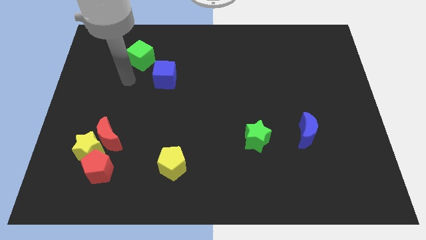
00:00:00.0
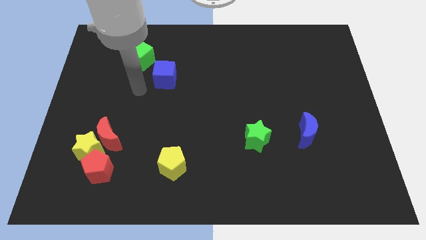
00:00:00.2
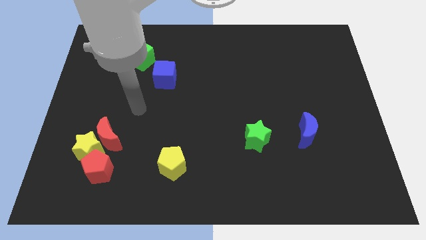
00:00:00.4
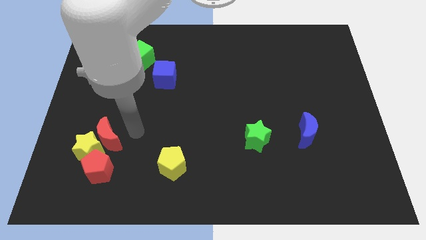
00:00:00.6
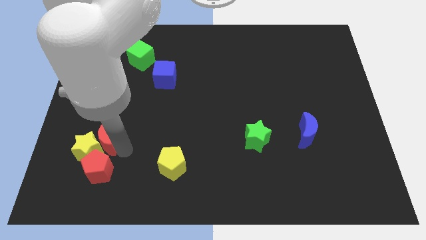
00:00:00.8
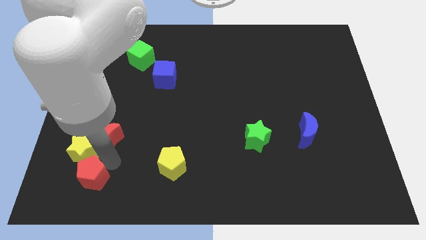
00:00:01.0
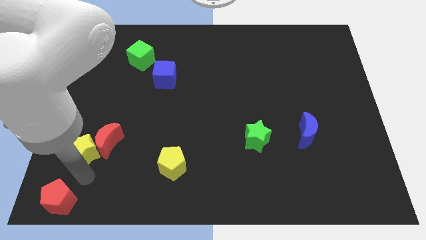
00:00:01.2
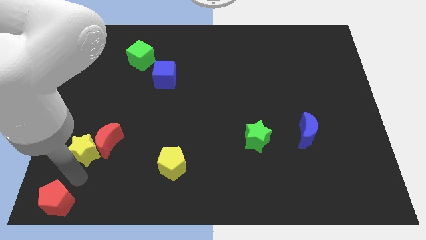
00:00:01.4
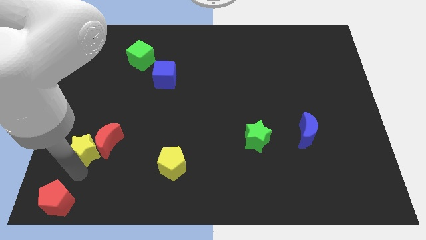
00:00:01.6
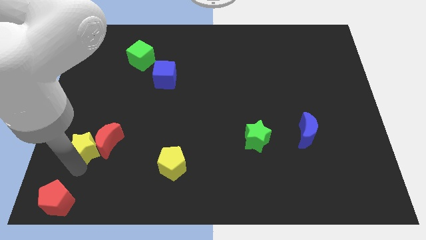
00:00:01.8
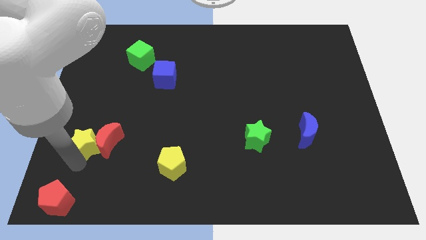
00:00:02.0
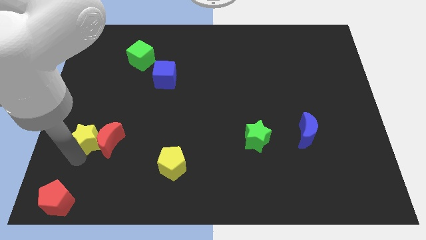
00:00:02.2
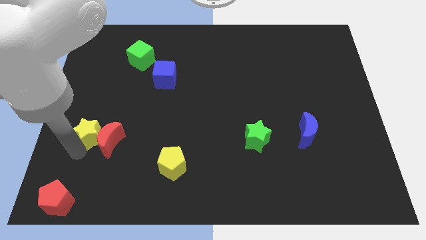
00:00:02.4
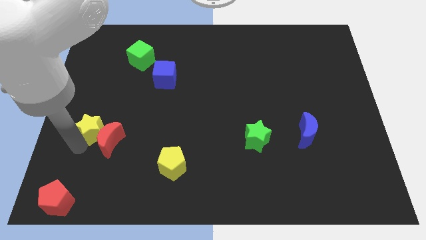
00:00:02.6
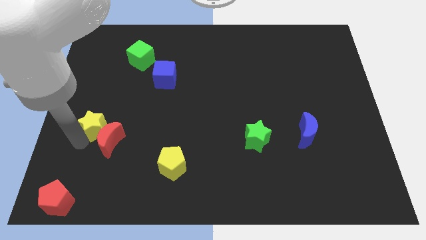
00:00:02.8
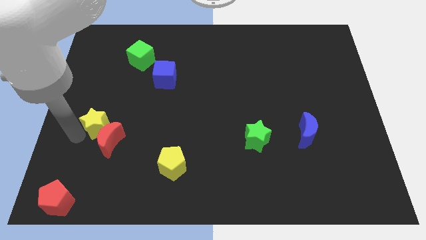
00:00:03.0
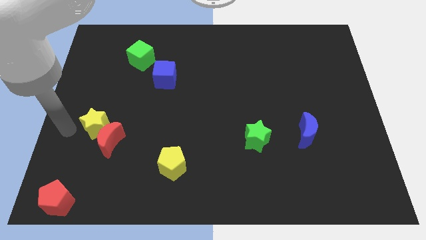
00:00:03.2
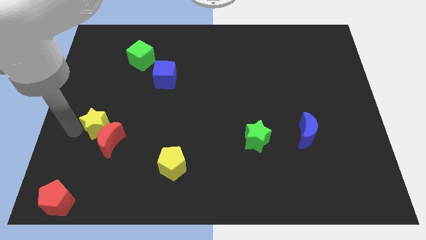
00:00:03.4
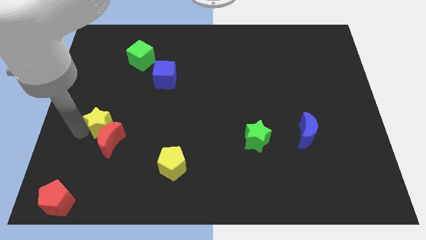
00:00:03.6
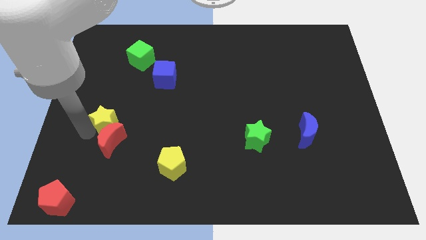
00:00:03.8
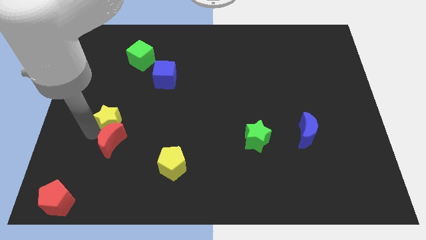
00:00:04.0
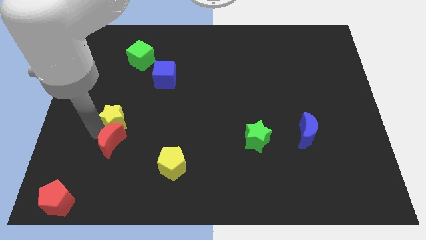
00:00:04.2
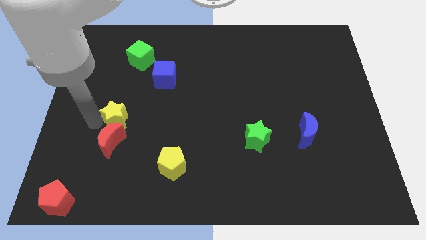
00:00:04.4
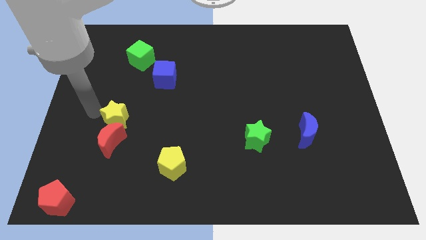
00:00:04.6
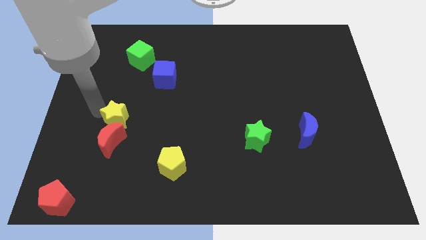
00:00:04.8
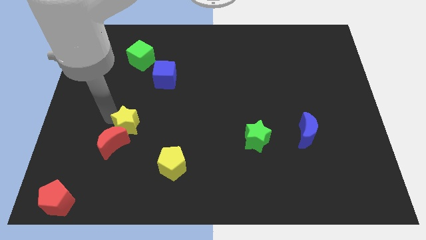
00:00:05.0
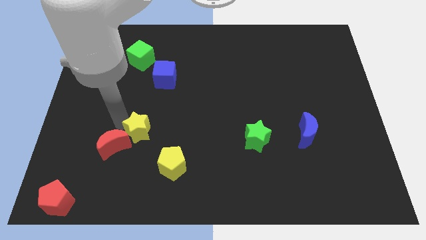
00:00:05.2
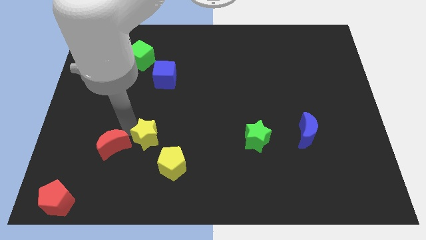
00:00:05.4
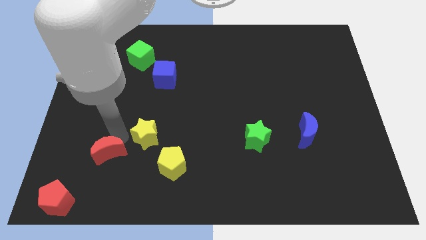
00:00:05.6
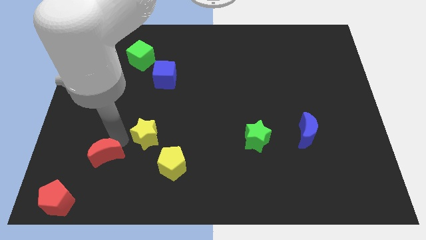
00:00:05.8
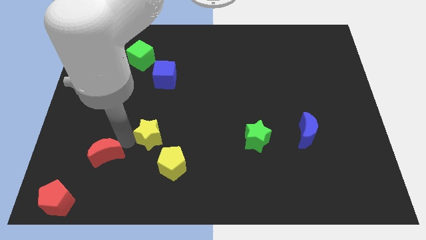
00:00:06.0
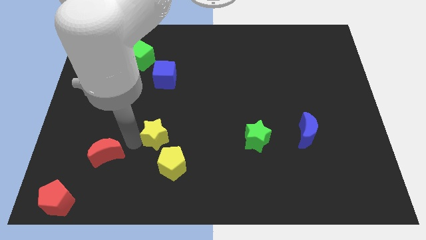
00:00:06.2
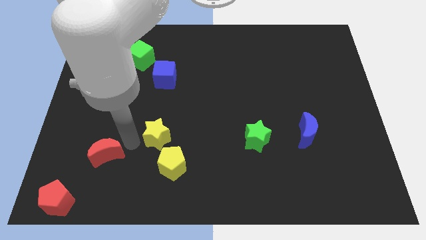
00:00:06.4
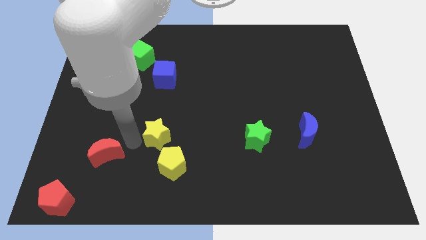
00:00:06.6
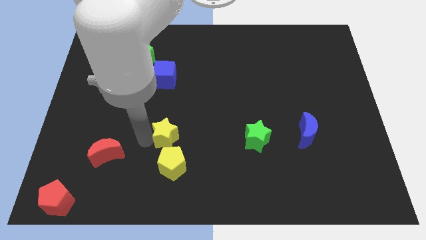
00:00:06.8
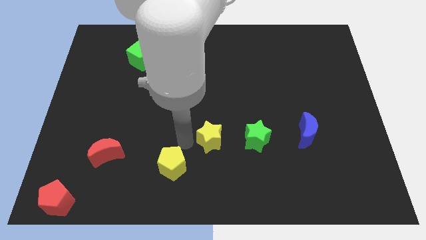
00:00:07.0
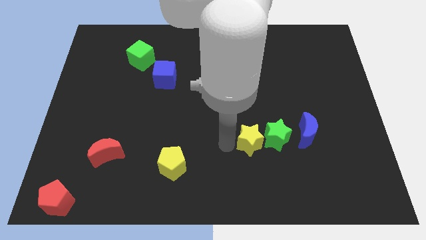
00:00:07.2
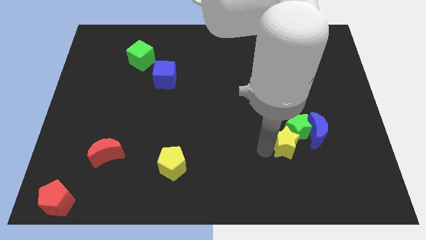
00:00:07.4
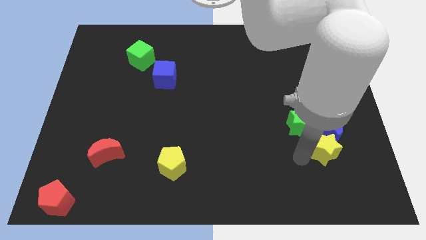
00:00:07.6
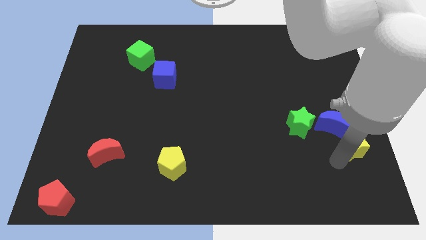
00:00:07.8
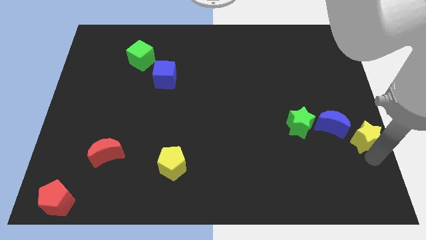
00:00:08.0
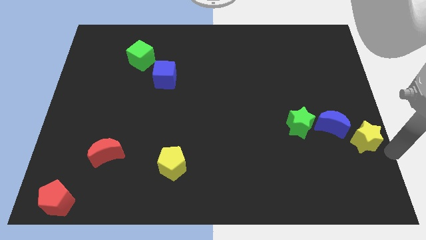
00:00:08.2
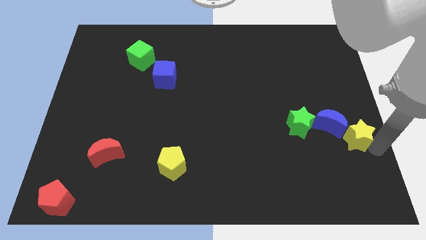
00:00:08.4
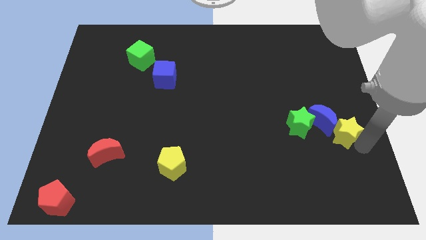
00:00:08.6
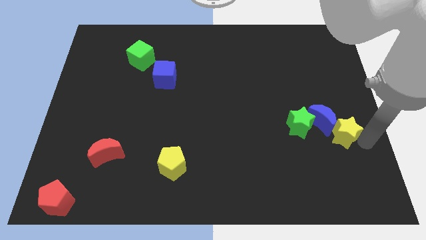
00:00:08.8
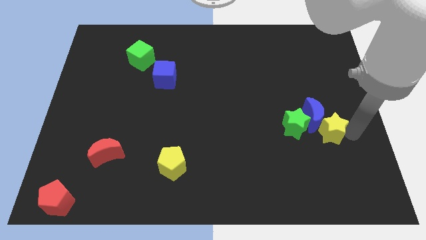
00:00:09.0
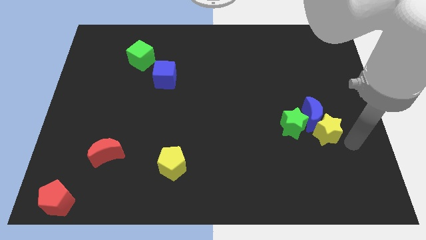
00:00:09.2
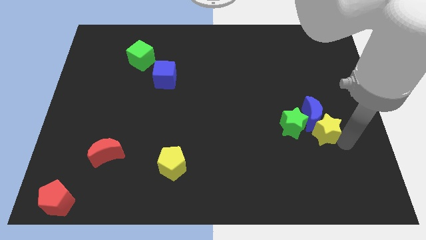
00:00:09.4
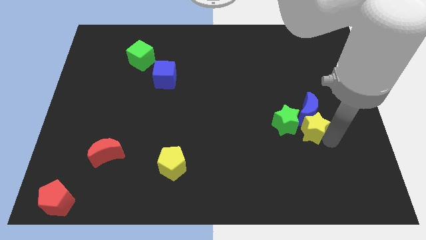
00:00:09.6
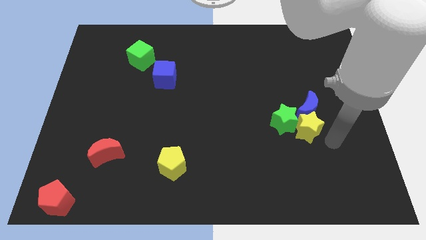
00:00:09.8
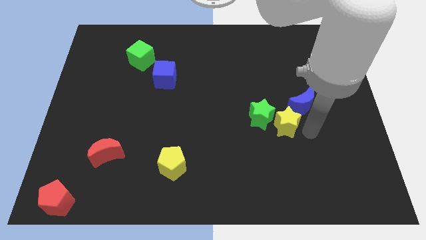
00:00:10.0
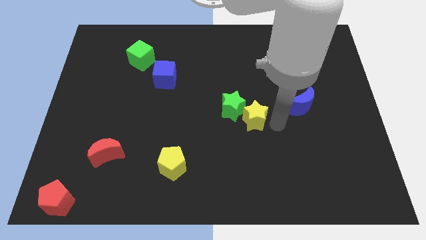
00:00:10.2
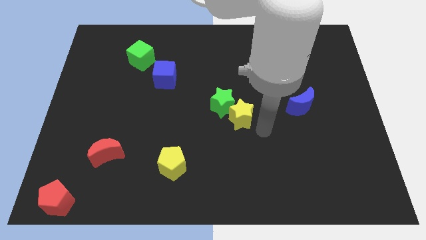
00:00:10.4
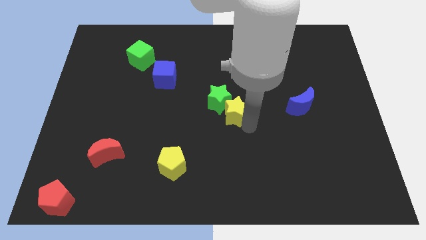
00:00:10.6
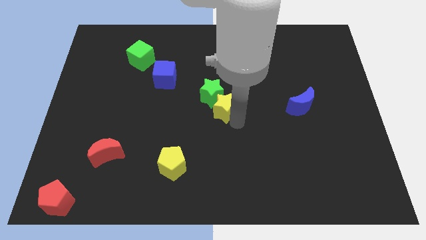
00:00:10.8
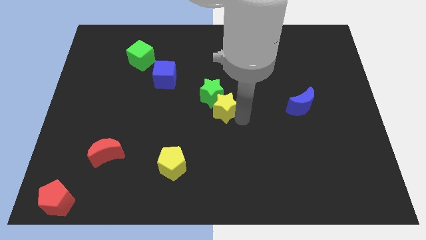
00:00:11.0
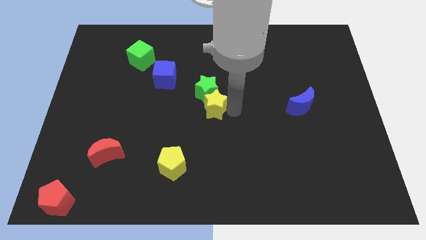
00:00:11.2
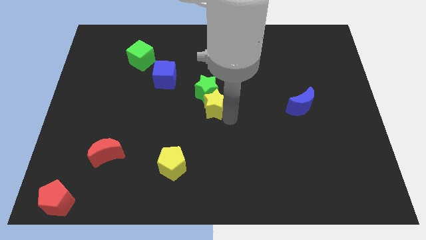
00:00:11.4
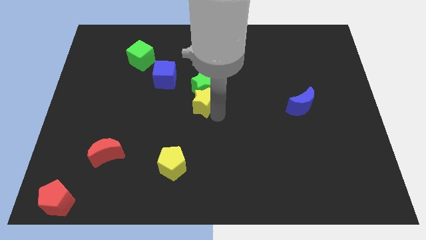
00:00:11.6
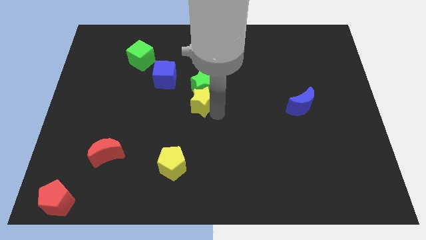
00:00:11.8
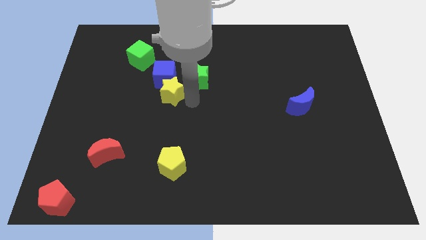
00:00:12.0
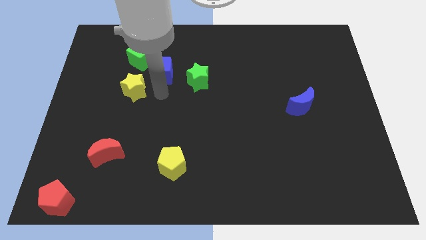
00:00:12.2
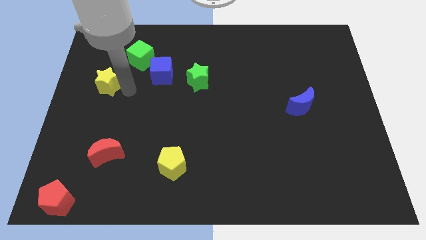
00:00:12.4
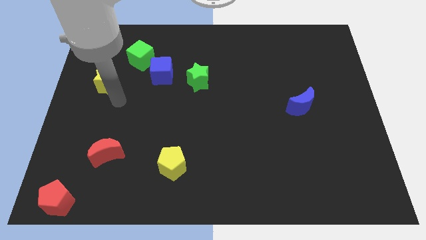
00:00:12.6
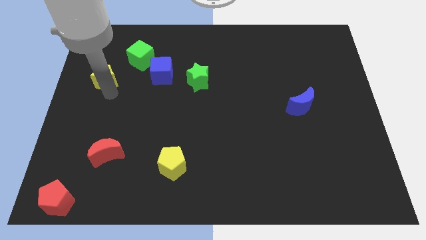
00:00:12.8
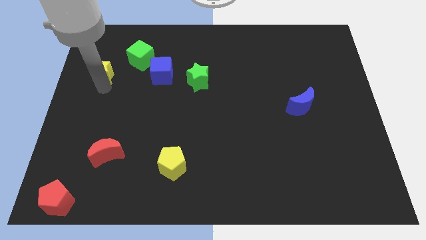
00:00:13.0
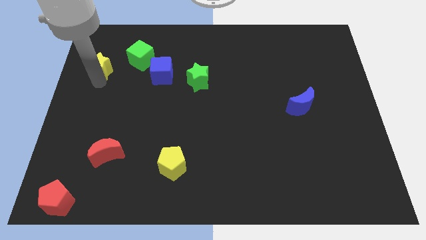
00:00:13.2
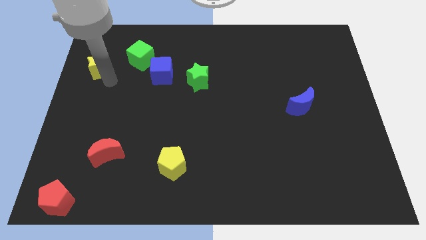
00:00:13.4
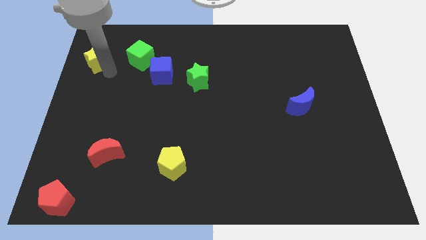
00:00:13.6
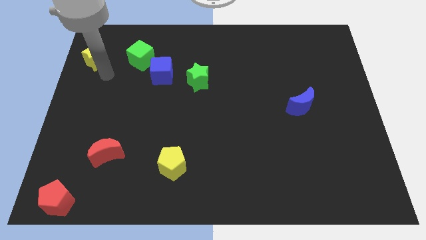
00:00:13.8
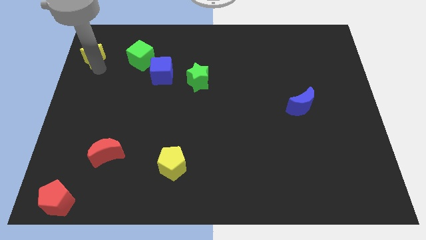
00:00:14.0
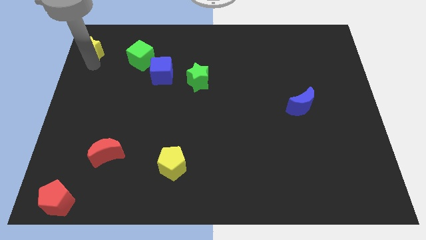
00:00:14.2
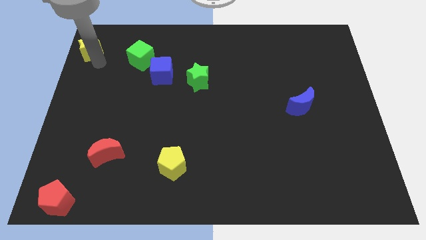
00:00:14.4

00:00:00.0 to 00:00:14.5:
push the yellow star to the top left
